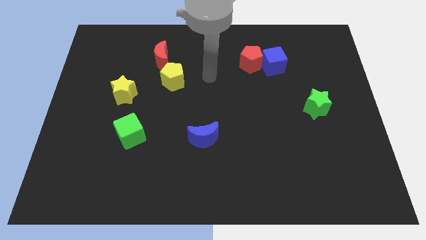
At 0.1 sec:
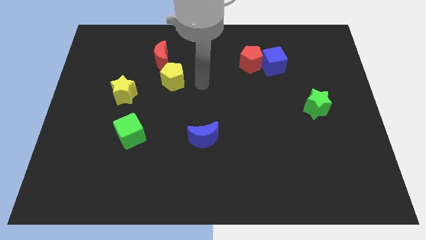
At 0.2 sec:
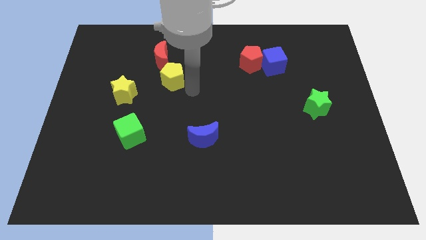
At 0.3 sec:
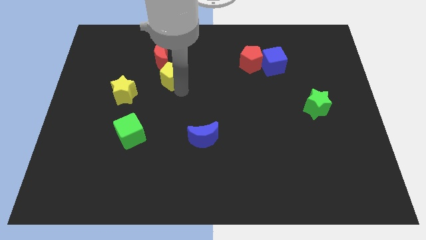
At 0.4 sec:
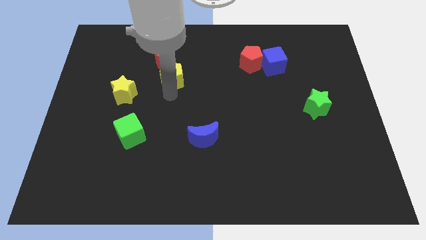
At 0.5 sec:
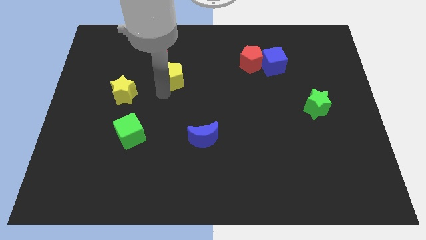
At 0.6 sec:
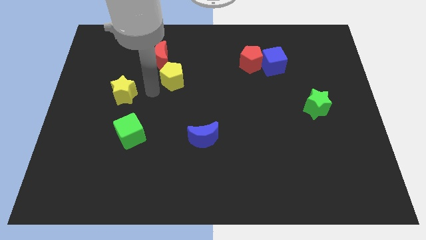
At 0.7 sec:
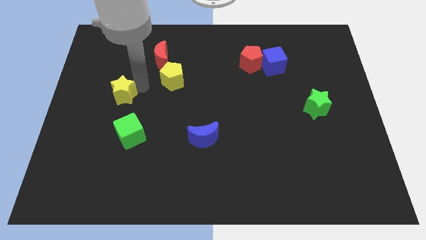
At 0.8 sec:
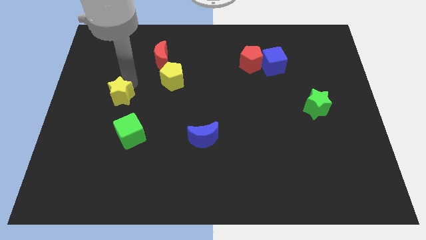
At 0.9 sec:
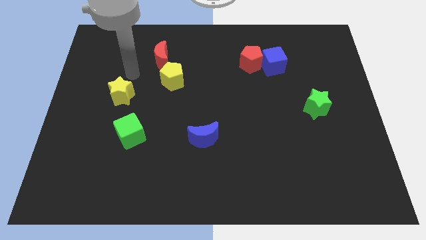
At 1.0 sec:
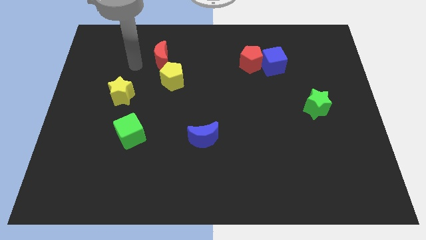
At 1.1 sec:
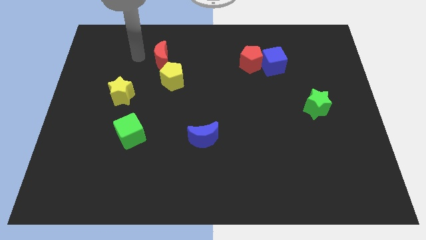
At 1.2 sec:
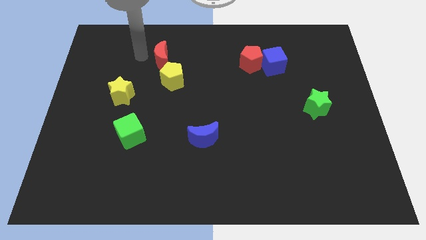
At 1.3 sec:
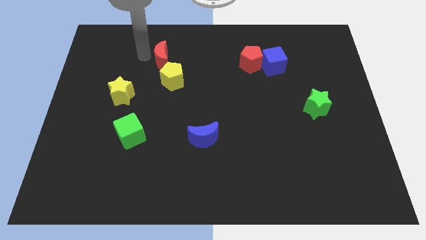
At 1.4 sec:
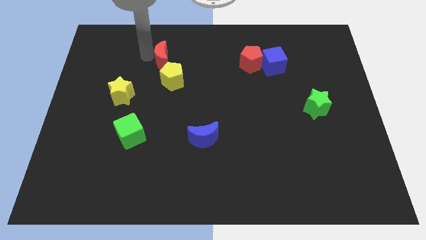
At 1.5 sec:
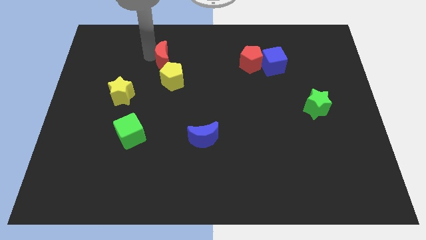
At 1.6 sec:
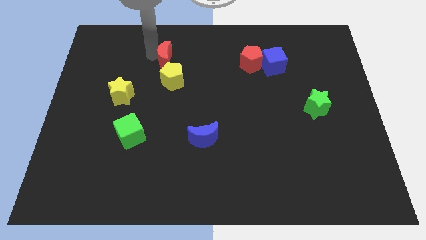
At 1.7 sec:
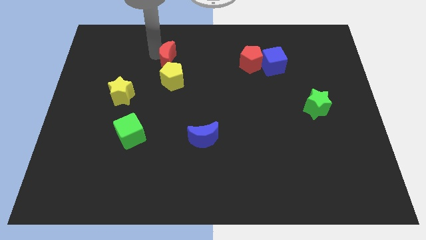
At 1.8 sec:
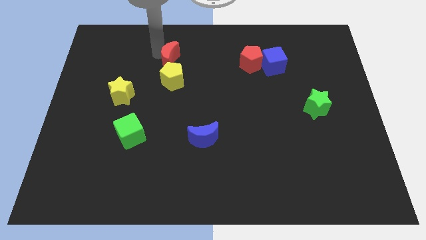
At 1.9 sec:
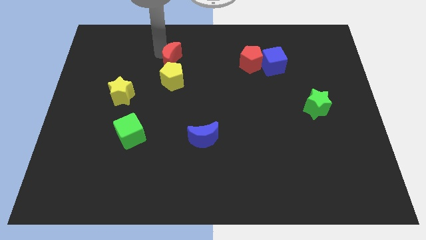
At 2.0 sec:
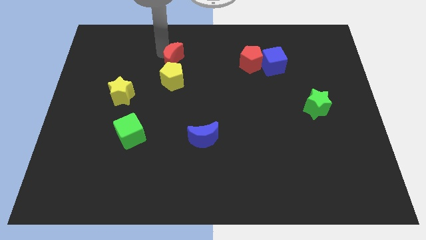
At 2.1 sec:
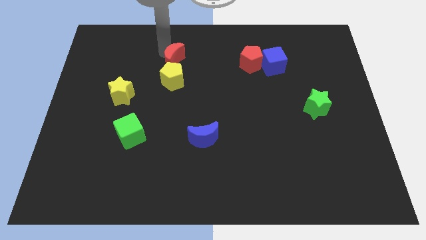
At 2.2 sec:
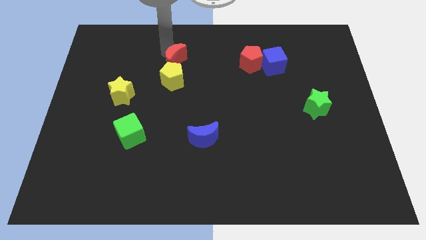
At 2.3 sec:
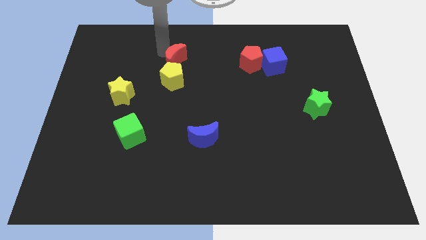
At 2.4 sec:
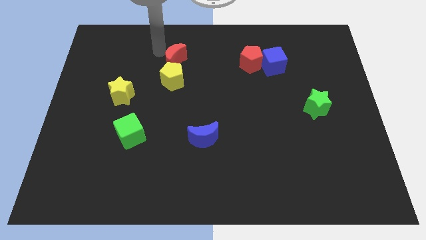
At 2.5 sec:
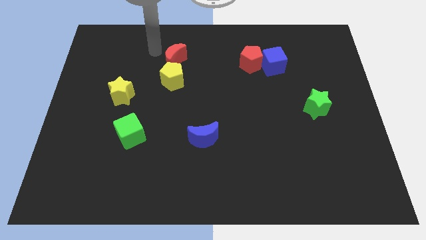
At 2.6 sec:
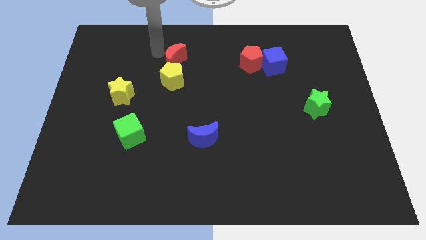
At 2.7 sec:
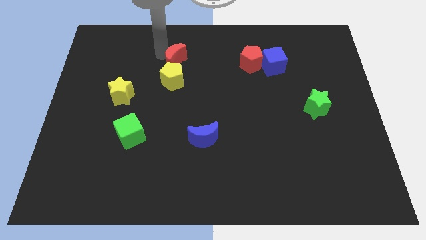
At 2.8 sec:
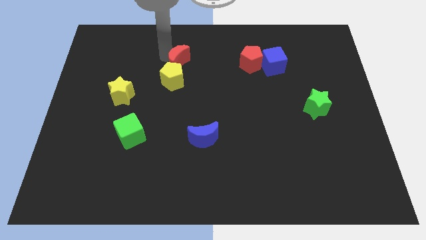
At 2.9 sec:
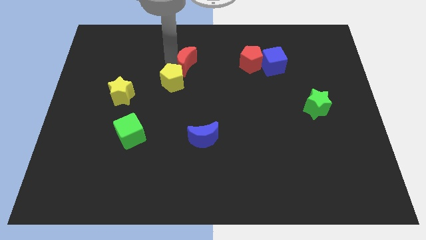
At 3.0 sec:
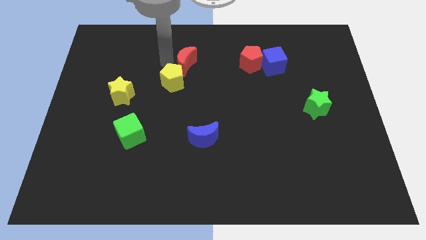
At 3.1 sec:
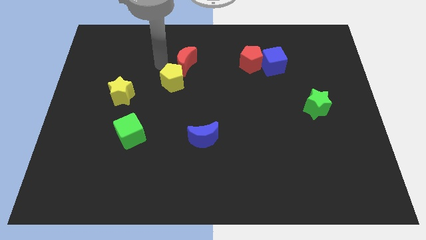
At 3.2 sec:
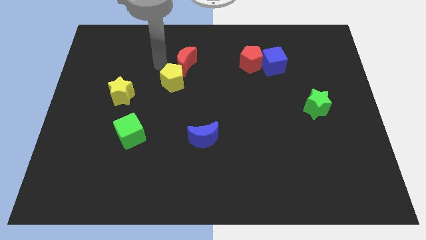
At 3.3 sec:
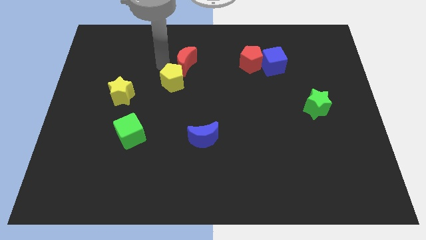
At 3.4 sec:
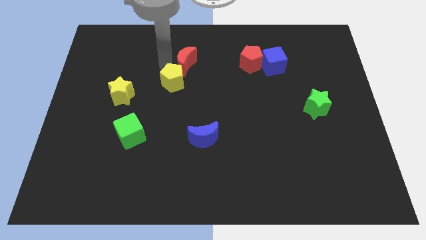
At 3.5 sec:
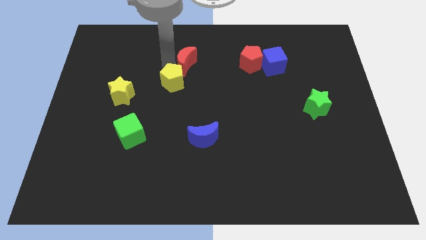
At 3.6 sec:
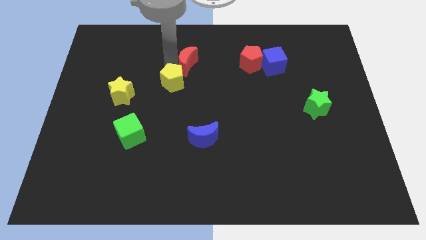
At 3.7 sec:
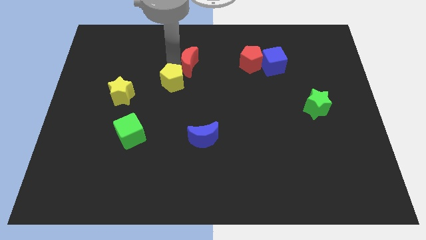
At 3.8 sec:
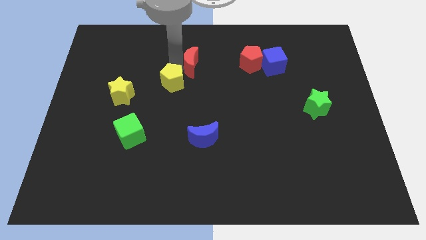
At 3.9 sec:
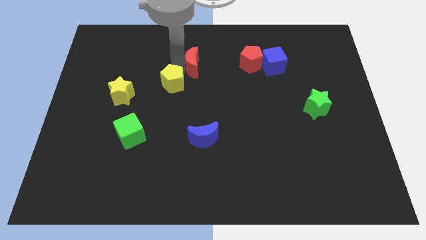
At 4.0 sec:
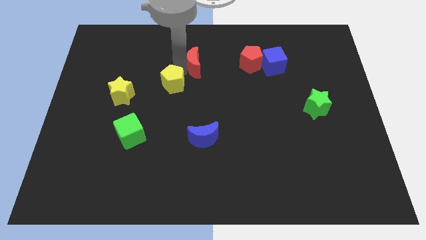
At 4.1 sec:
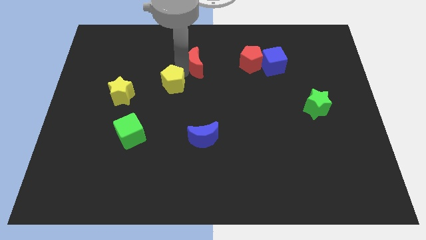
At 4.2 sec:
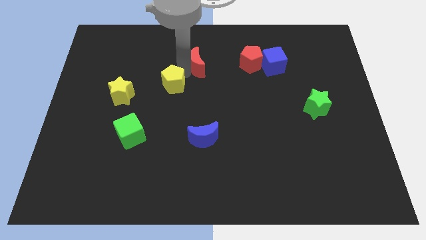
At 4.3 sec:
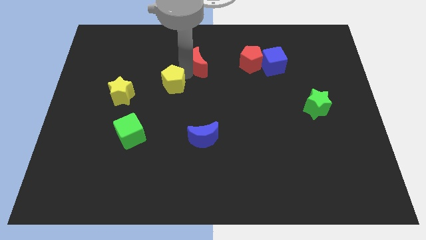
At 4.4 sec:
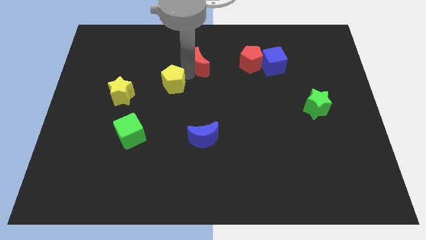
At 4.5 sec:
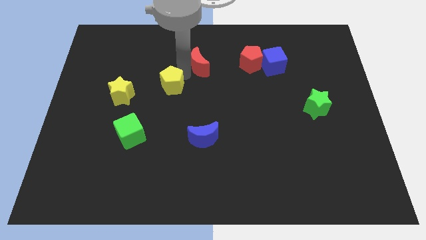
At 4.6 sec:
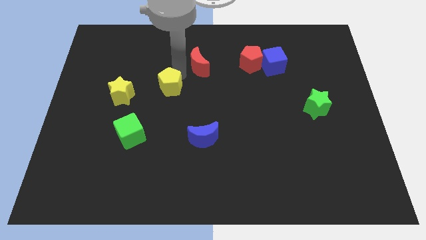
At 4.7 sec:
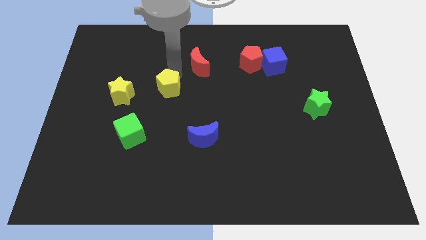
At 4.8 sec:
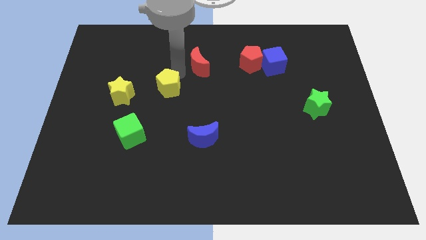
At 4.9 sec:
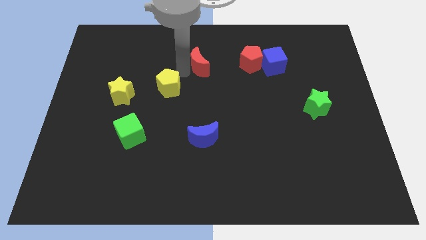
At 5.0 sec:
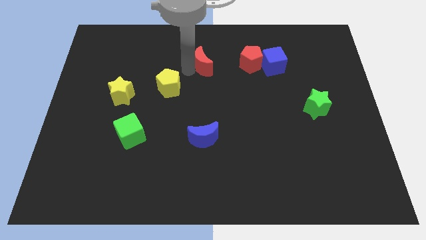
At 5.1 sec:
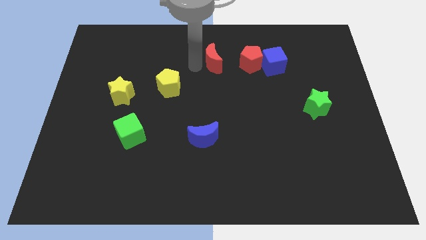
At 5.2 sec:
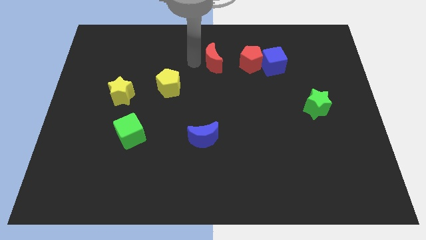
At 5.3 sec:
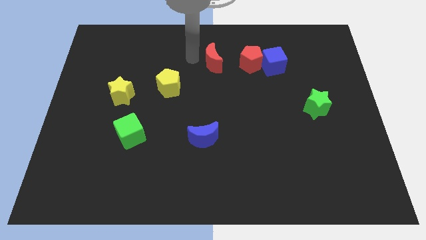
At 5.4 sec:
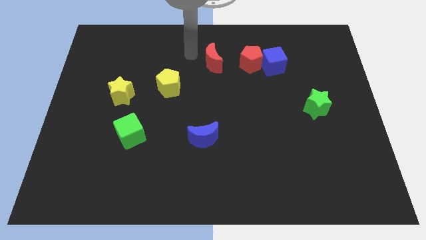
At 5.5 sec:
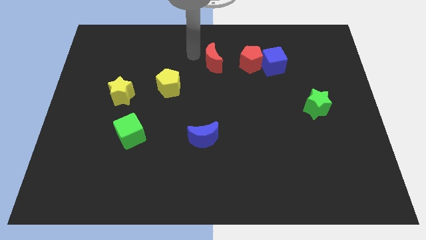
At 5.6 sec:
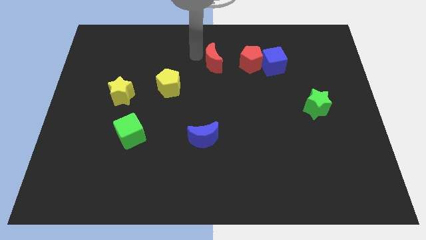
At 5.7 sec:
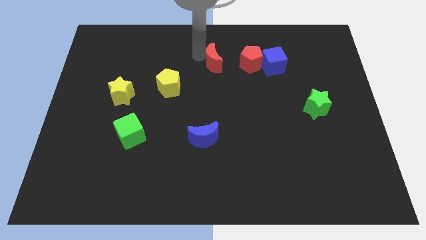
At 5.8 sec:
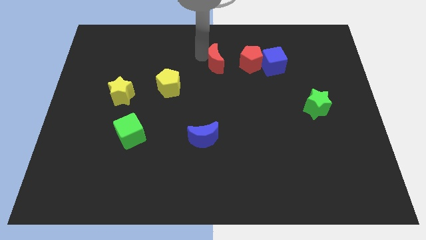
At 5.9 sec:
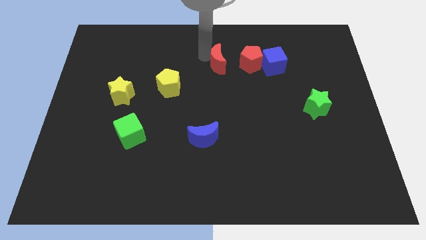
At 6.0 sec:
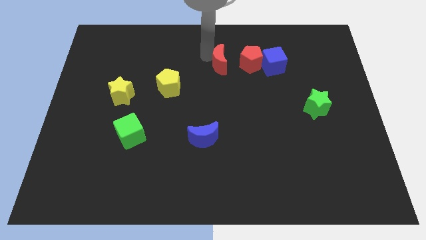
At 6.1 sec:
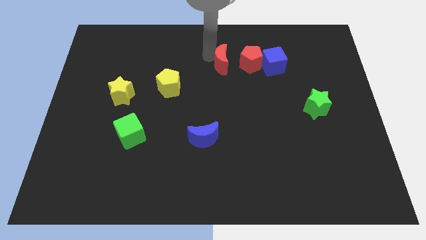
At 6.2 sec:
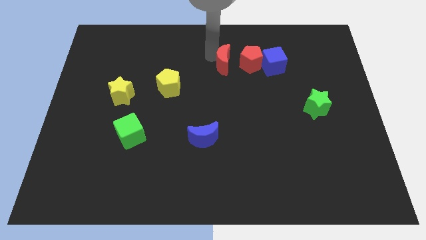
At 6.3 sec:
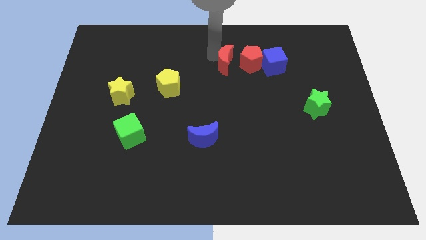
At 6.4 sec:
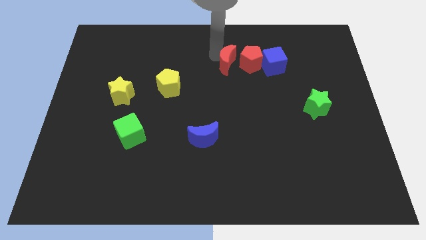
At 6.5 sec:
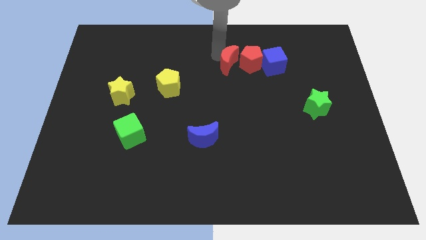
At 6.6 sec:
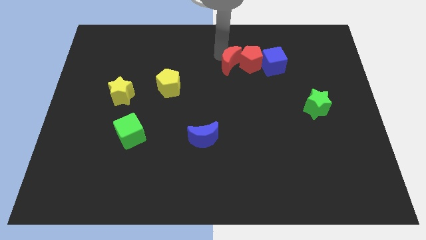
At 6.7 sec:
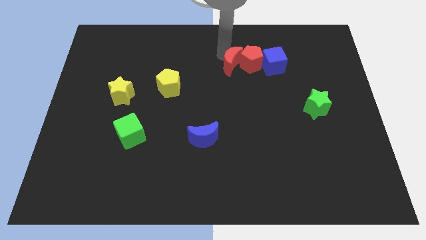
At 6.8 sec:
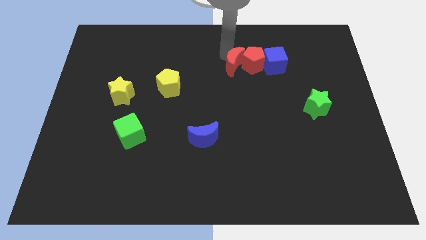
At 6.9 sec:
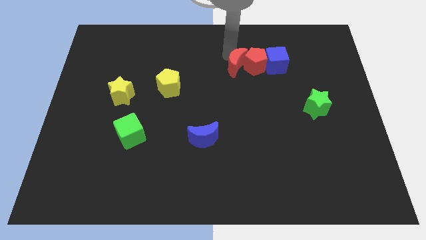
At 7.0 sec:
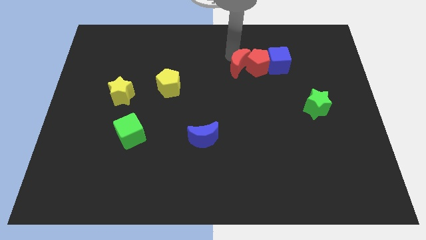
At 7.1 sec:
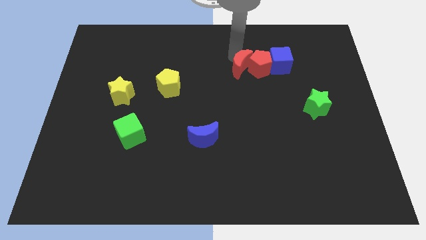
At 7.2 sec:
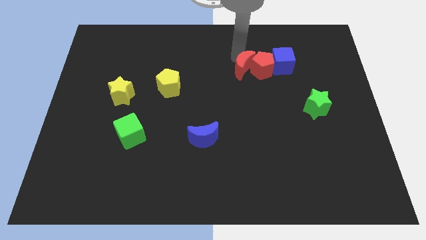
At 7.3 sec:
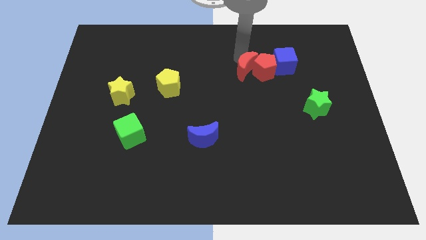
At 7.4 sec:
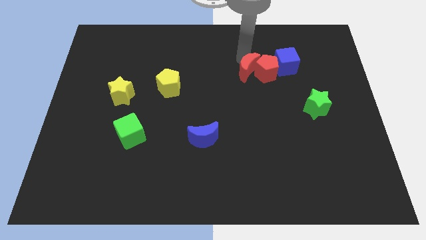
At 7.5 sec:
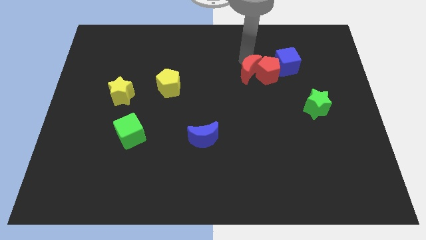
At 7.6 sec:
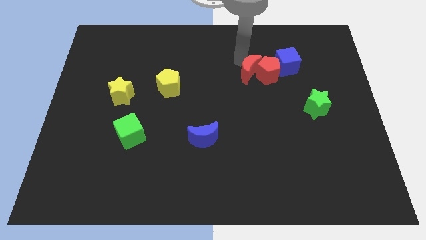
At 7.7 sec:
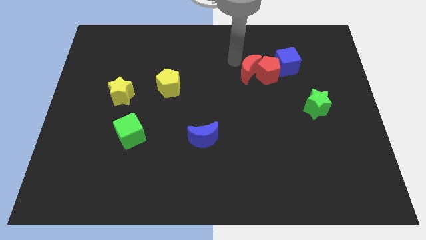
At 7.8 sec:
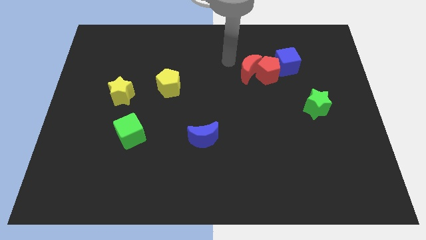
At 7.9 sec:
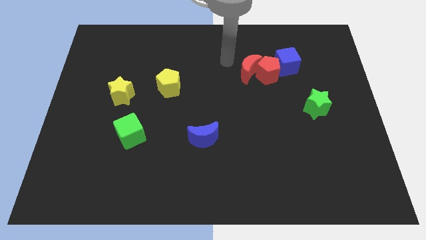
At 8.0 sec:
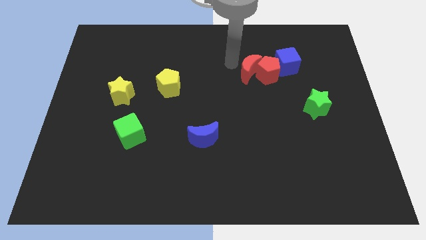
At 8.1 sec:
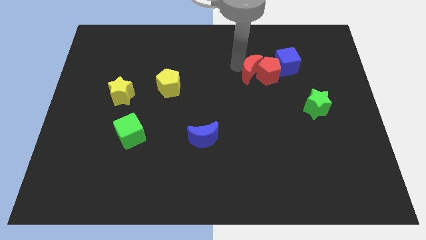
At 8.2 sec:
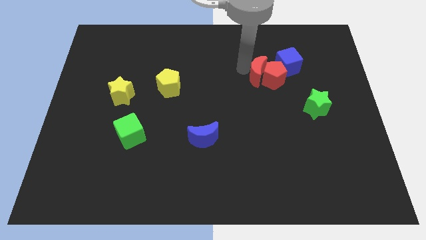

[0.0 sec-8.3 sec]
slide the red moon diagonally down and to the left of the blue cube
